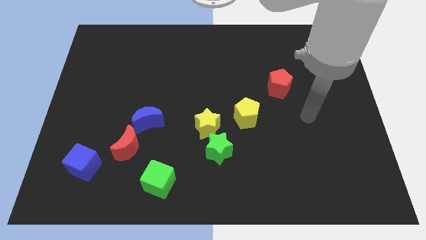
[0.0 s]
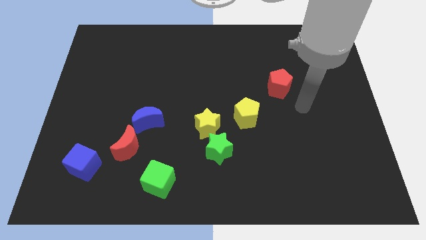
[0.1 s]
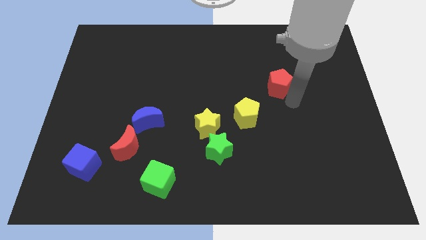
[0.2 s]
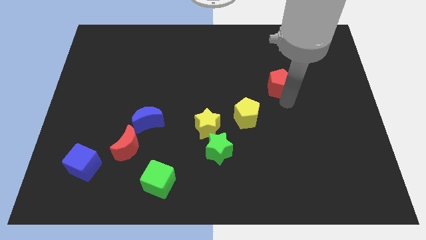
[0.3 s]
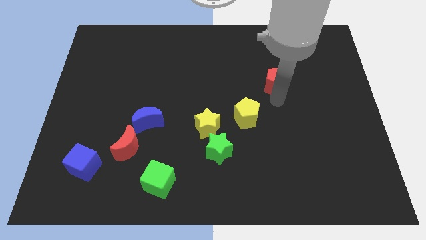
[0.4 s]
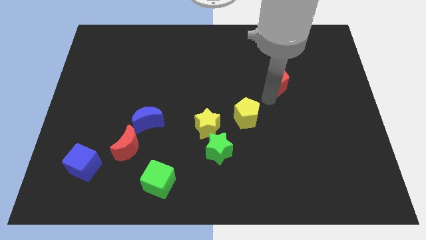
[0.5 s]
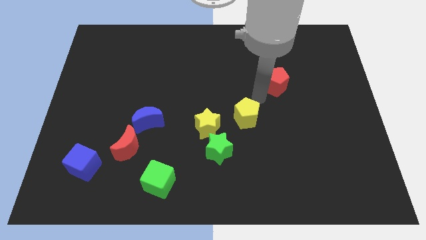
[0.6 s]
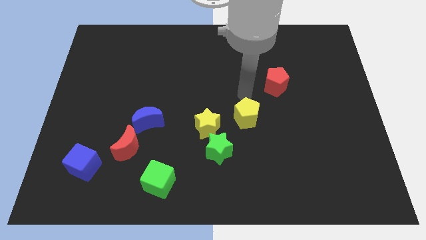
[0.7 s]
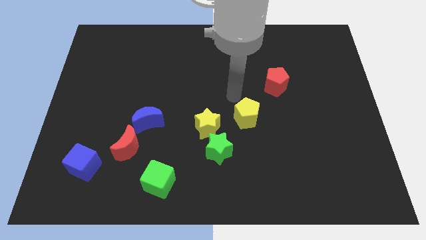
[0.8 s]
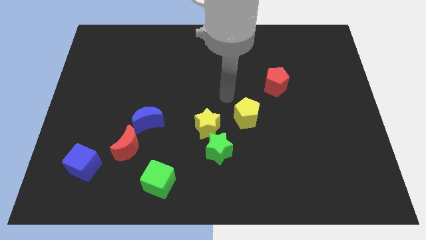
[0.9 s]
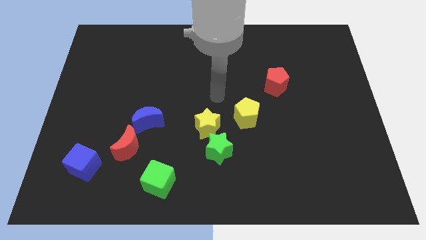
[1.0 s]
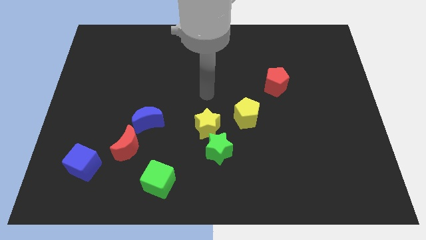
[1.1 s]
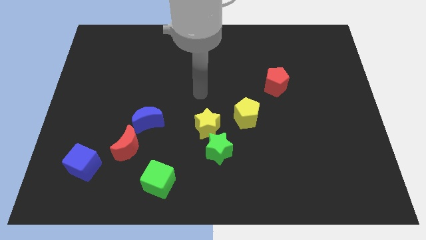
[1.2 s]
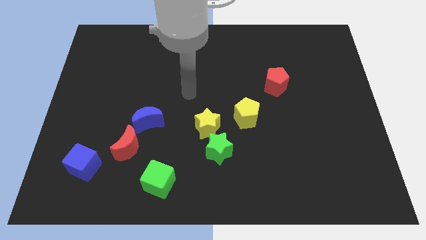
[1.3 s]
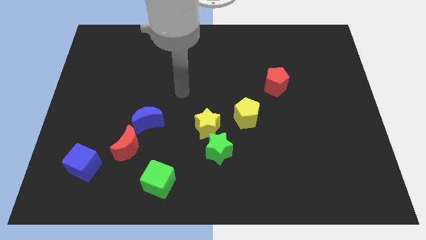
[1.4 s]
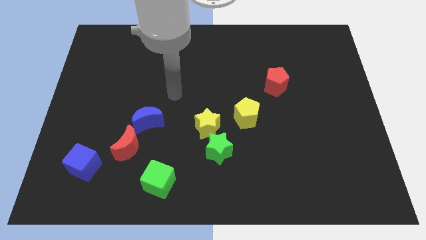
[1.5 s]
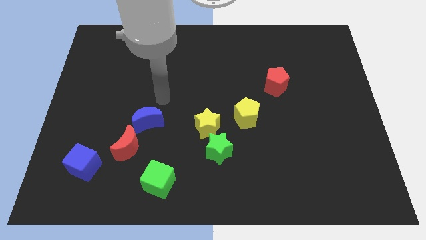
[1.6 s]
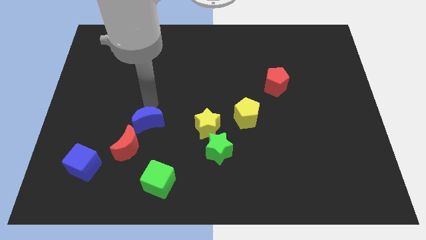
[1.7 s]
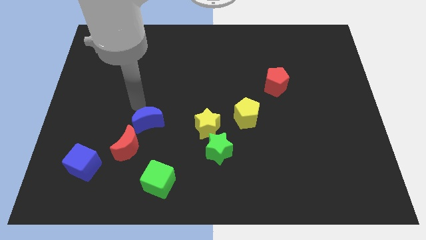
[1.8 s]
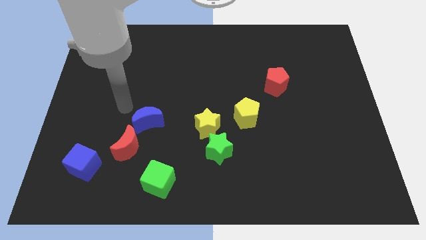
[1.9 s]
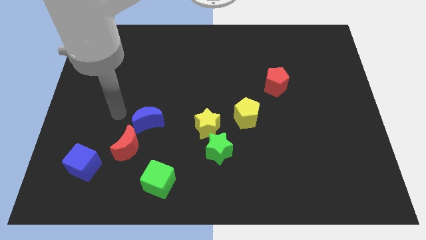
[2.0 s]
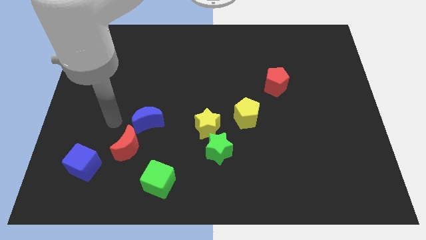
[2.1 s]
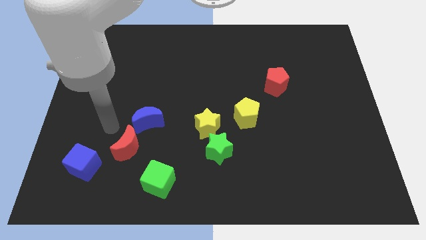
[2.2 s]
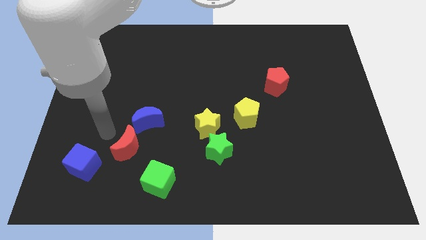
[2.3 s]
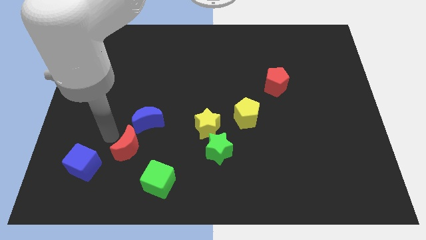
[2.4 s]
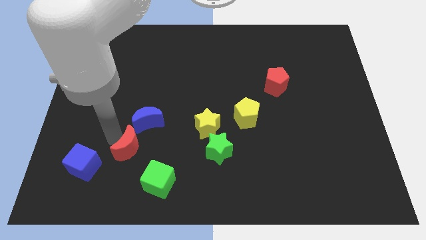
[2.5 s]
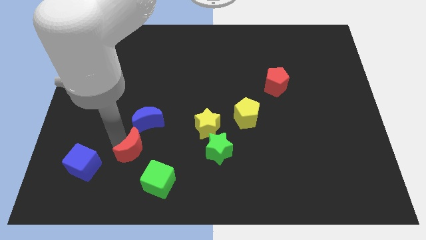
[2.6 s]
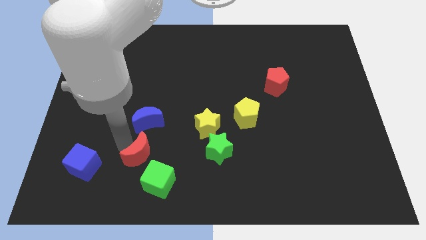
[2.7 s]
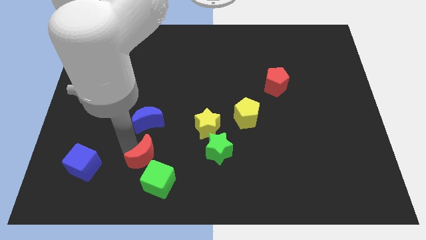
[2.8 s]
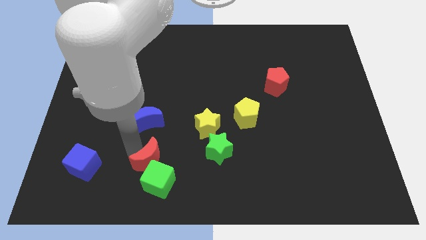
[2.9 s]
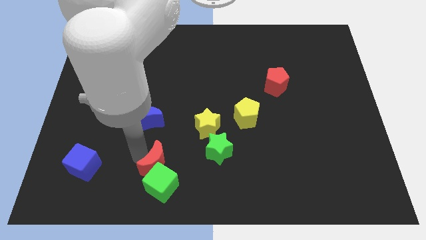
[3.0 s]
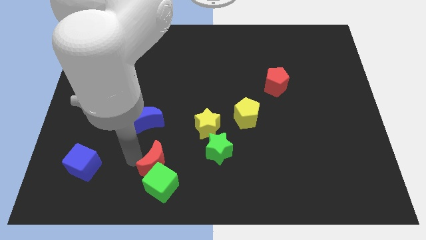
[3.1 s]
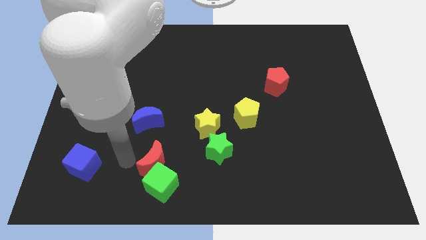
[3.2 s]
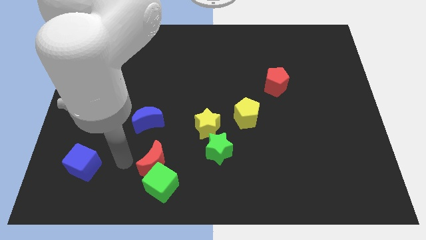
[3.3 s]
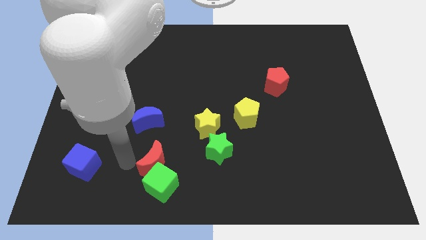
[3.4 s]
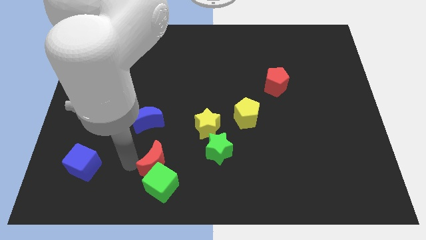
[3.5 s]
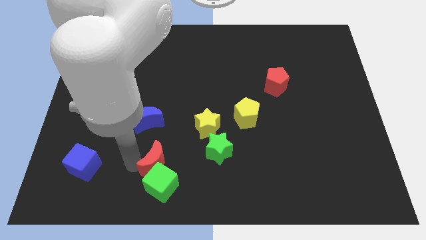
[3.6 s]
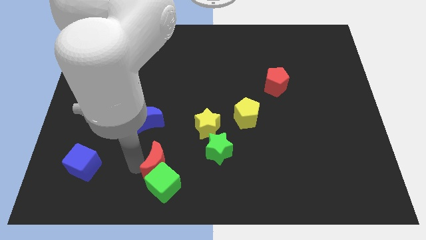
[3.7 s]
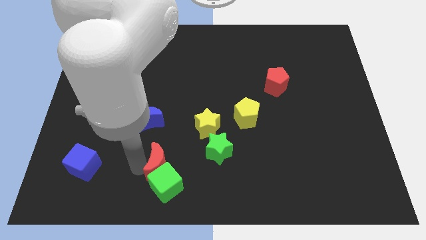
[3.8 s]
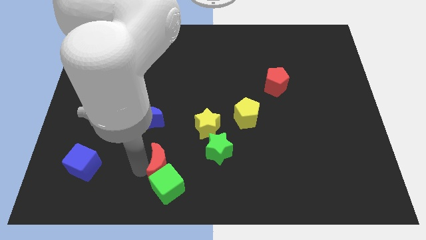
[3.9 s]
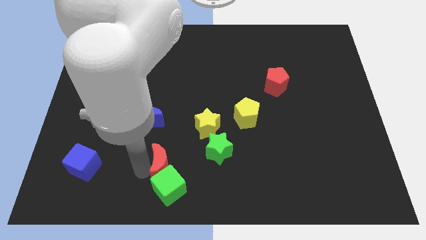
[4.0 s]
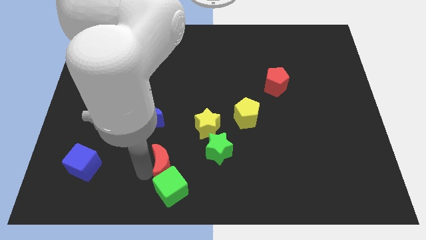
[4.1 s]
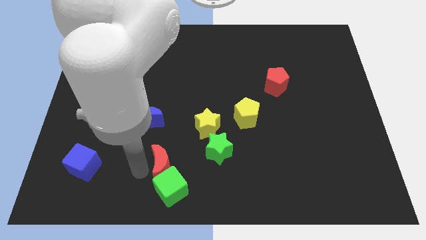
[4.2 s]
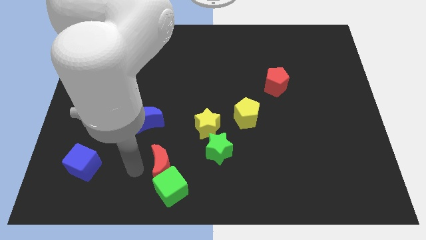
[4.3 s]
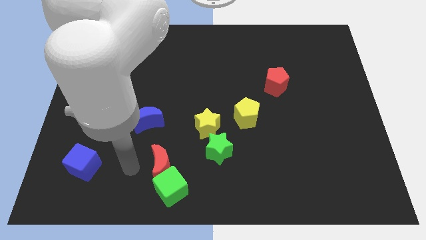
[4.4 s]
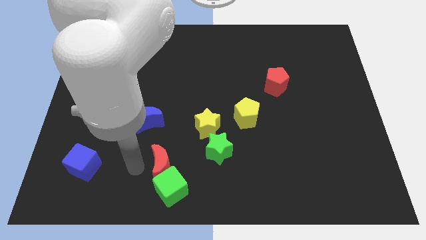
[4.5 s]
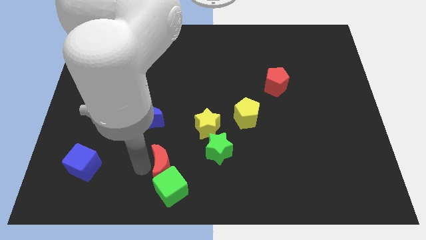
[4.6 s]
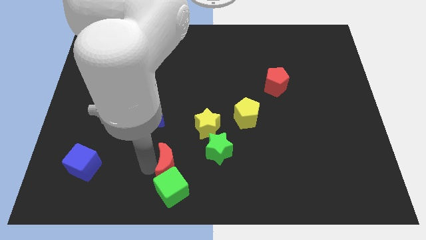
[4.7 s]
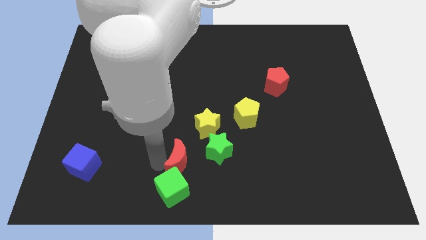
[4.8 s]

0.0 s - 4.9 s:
put the red moon to the bottom side

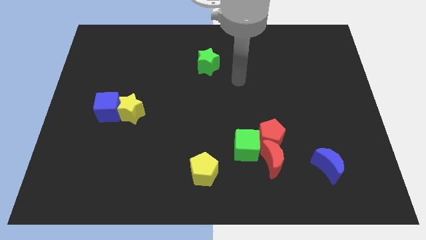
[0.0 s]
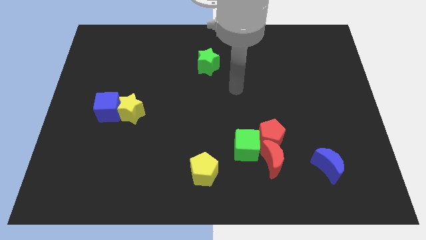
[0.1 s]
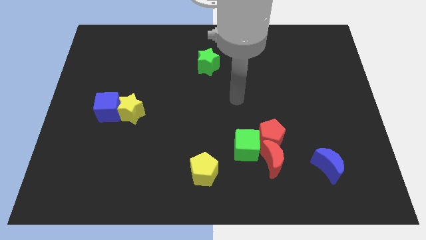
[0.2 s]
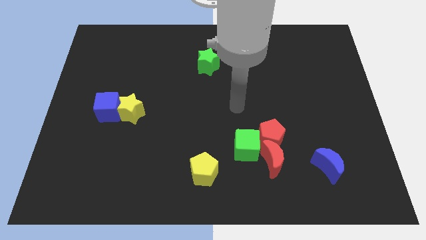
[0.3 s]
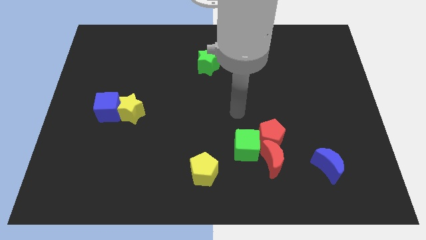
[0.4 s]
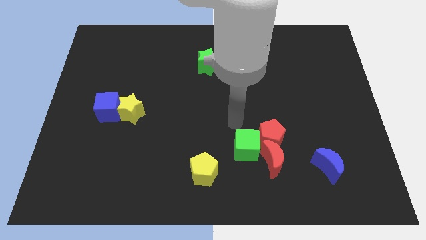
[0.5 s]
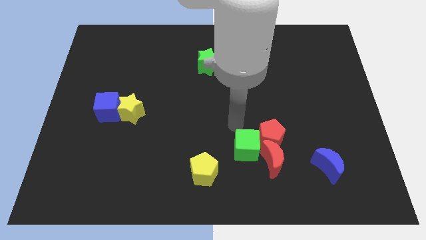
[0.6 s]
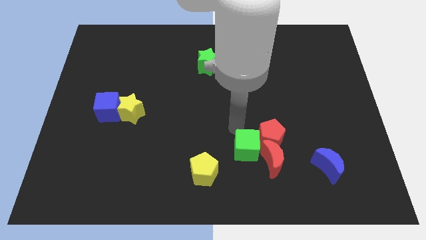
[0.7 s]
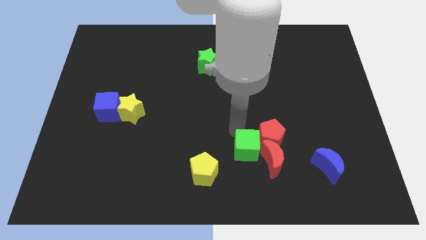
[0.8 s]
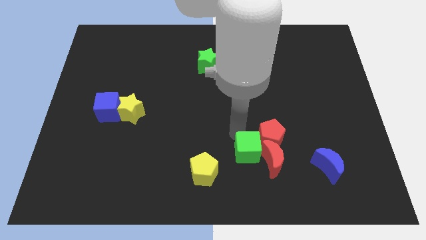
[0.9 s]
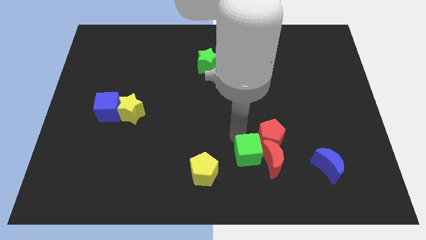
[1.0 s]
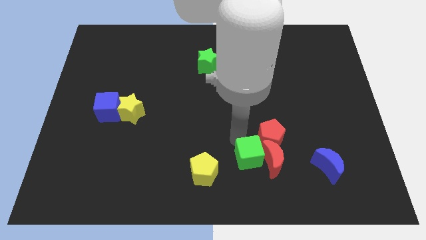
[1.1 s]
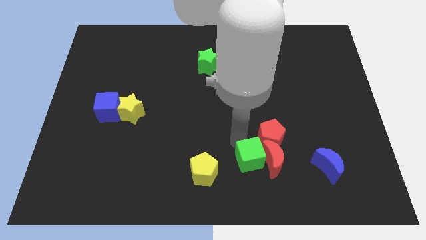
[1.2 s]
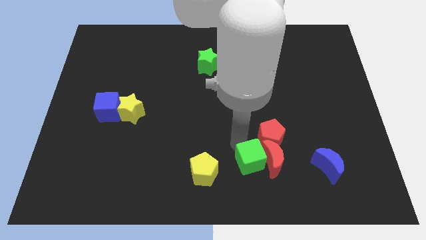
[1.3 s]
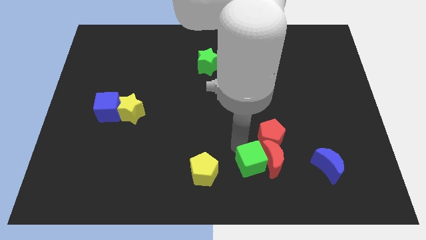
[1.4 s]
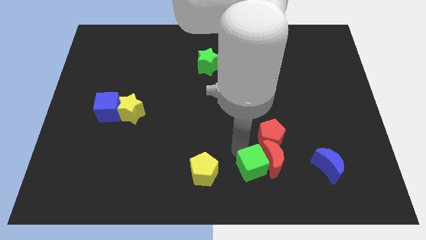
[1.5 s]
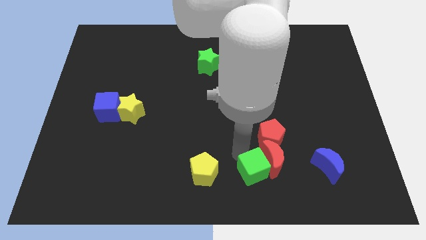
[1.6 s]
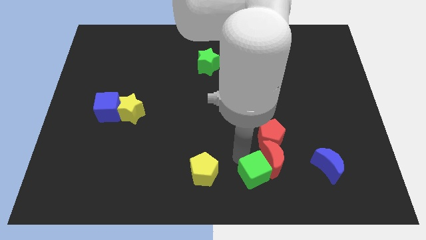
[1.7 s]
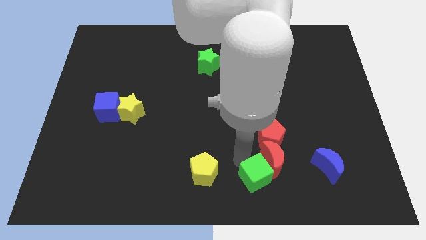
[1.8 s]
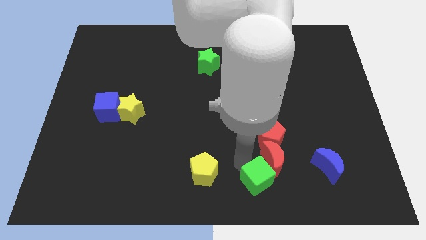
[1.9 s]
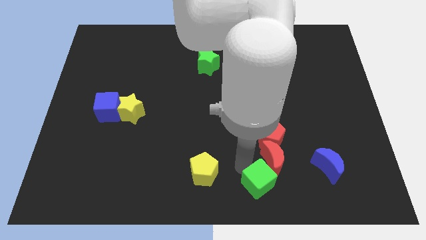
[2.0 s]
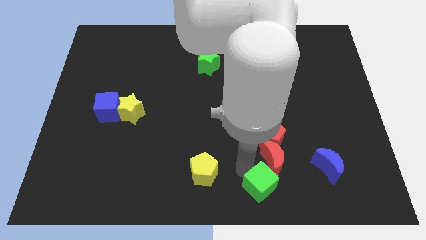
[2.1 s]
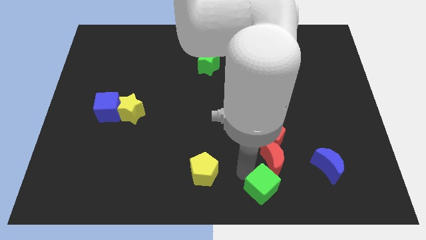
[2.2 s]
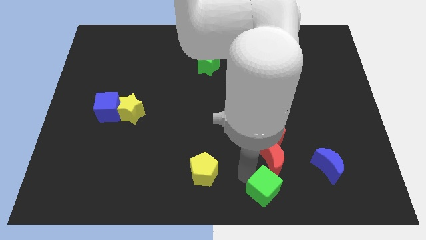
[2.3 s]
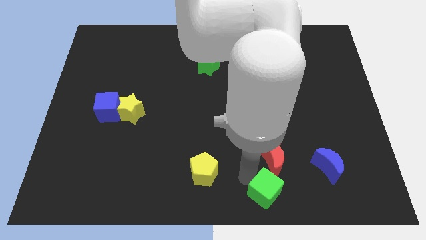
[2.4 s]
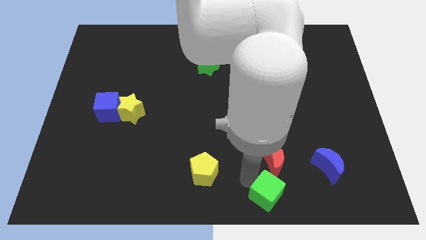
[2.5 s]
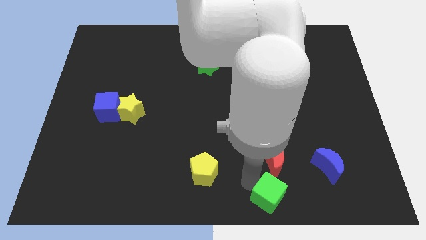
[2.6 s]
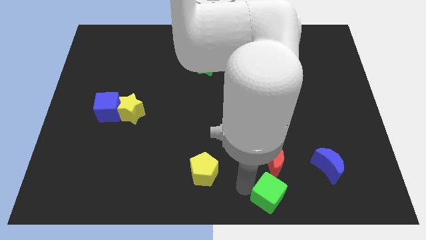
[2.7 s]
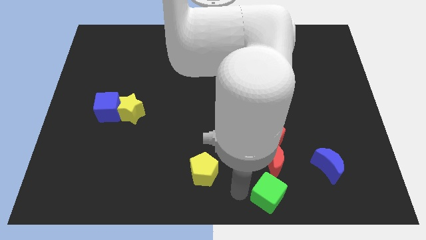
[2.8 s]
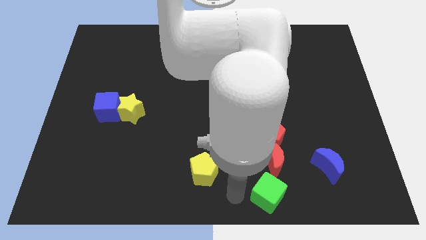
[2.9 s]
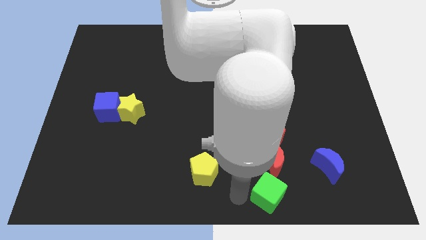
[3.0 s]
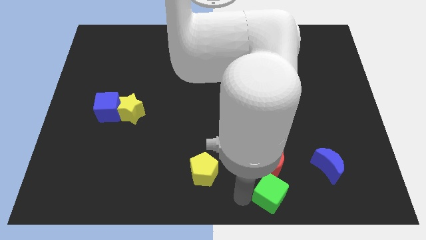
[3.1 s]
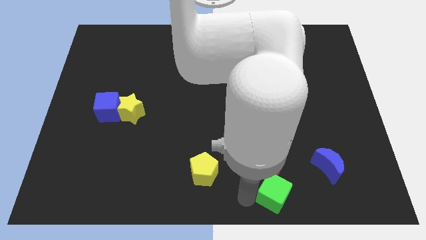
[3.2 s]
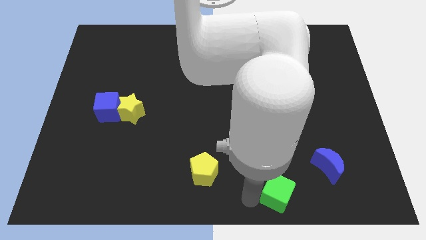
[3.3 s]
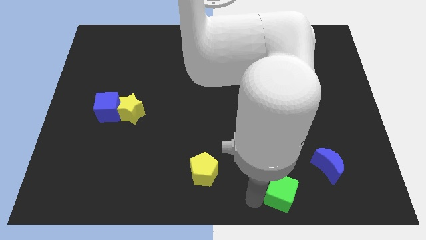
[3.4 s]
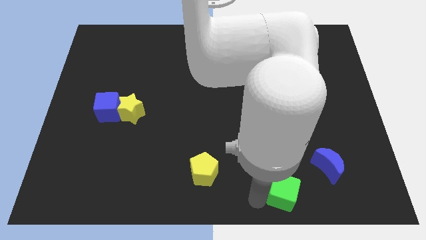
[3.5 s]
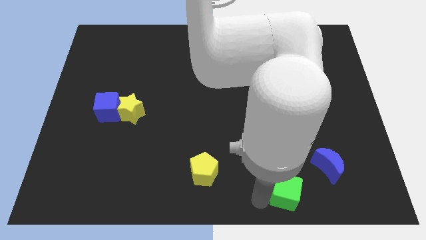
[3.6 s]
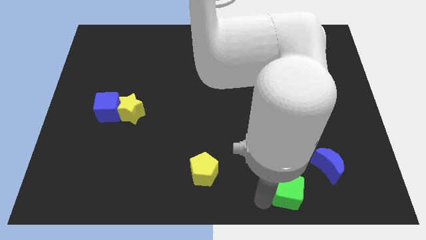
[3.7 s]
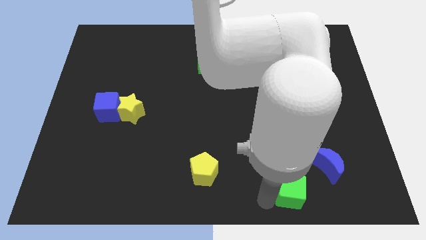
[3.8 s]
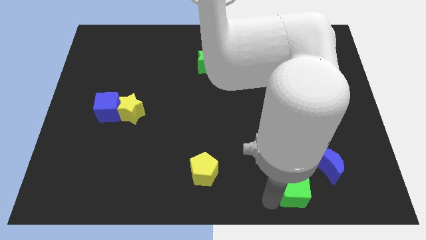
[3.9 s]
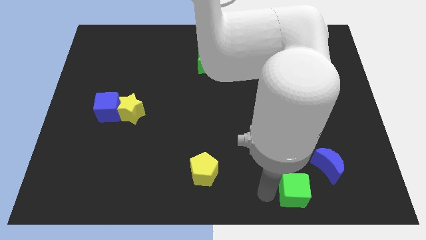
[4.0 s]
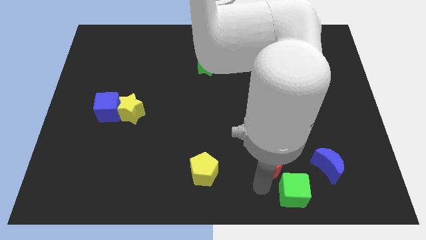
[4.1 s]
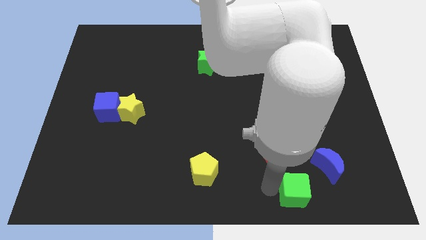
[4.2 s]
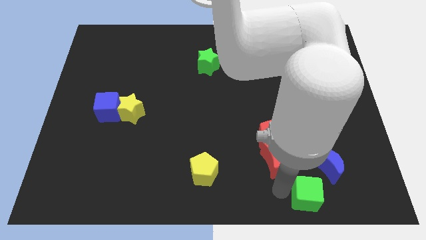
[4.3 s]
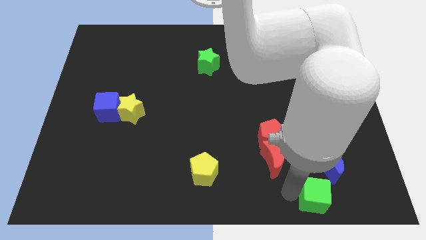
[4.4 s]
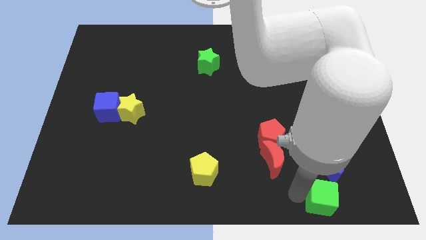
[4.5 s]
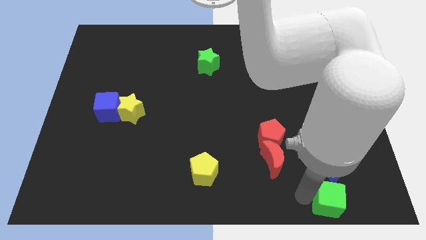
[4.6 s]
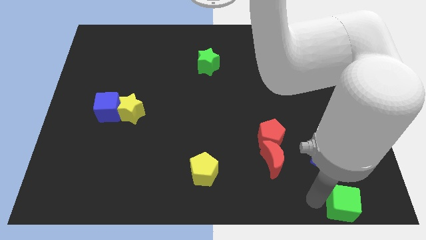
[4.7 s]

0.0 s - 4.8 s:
move the green cube to the lower right corner
